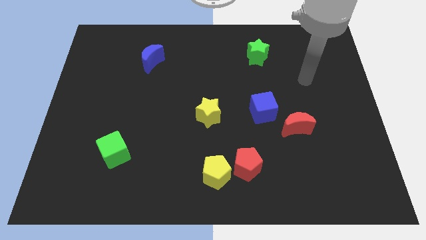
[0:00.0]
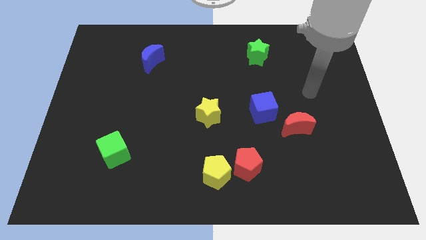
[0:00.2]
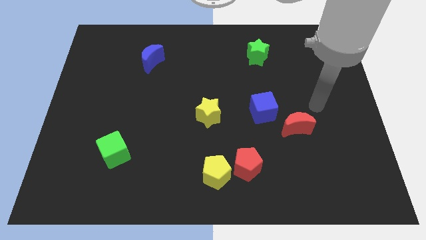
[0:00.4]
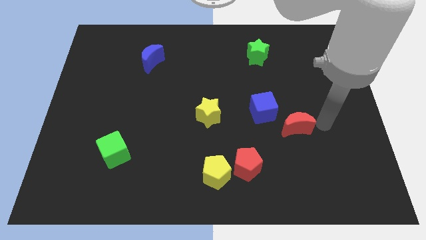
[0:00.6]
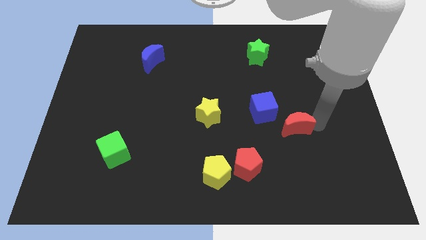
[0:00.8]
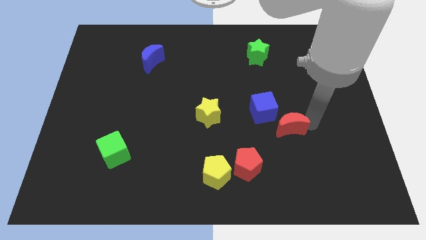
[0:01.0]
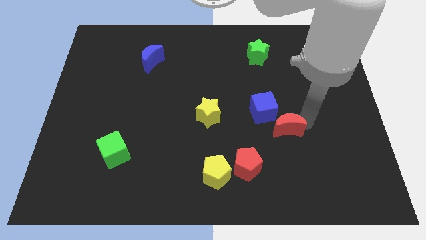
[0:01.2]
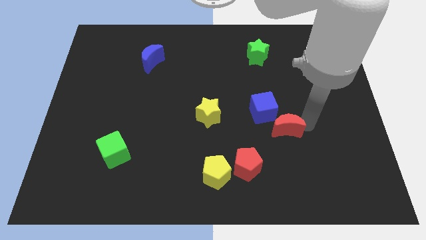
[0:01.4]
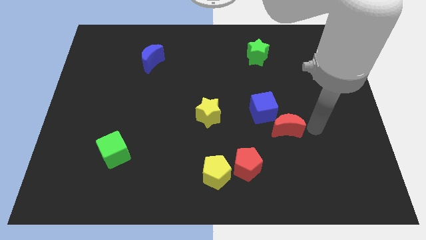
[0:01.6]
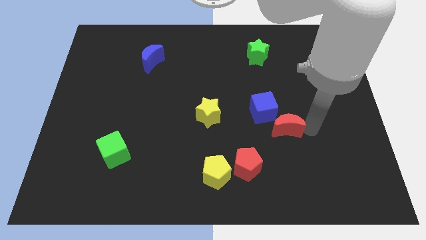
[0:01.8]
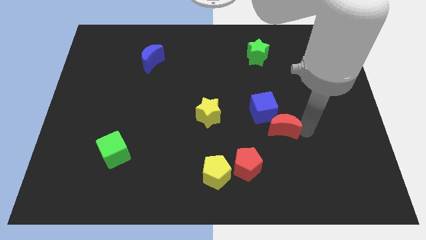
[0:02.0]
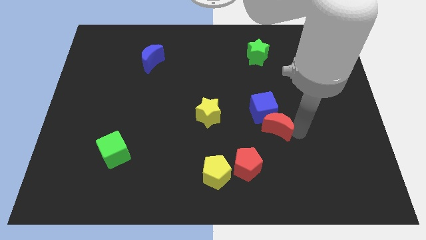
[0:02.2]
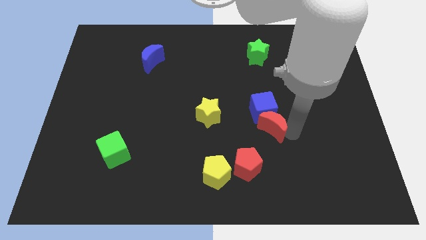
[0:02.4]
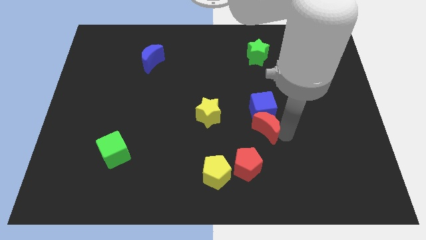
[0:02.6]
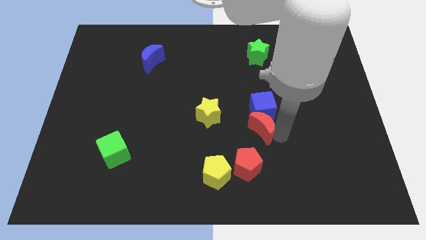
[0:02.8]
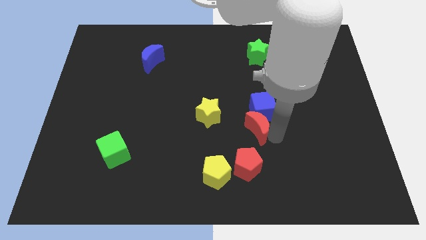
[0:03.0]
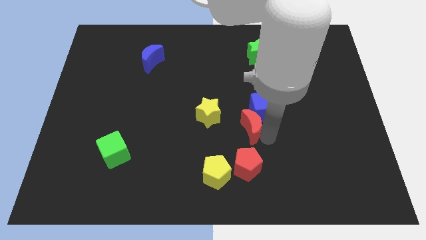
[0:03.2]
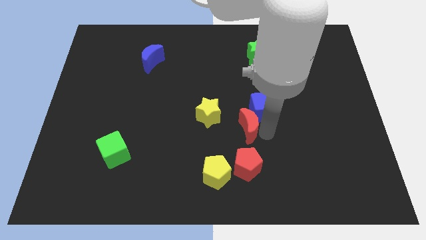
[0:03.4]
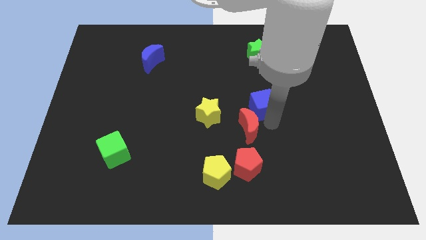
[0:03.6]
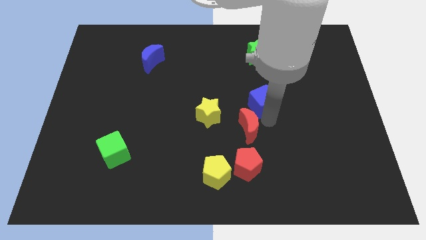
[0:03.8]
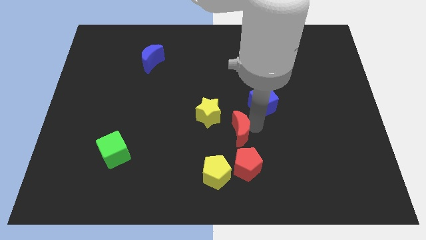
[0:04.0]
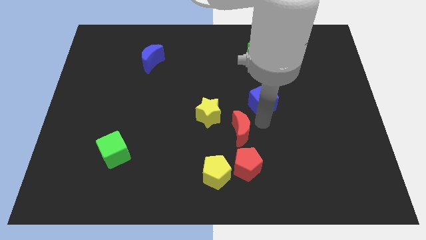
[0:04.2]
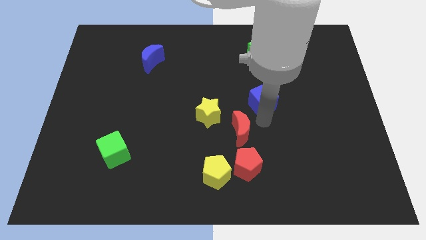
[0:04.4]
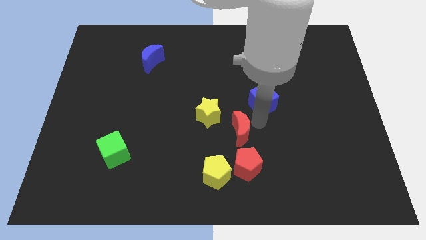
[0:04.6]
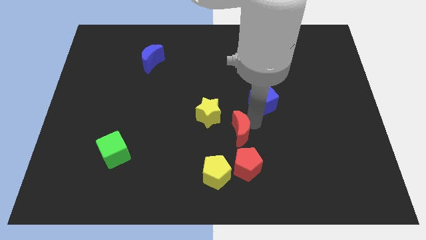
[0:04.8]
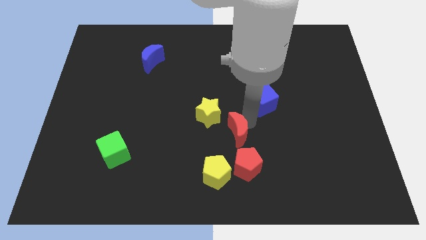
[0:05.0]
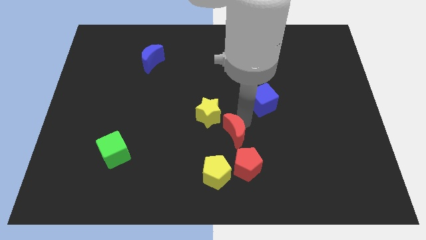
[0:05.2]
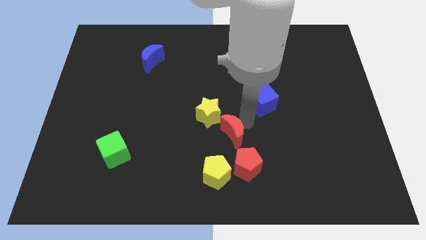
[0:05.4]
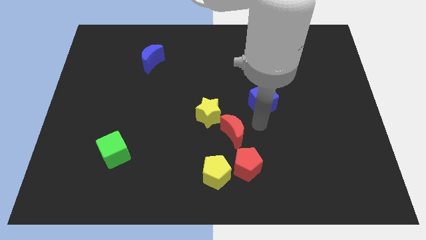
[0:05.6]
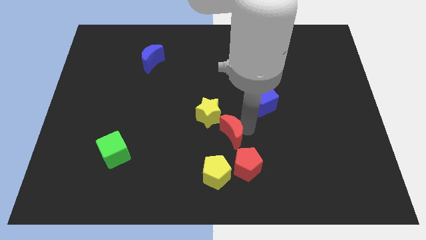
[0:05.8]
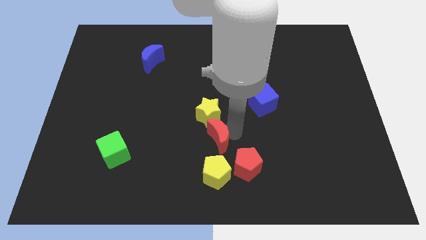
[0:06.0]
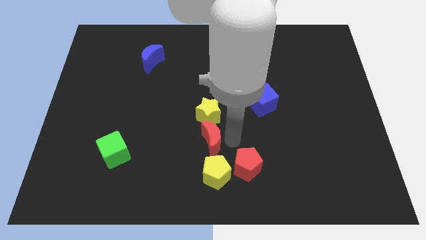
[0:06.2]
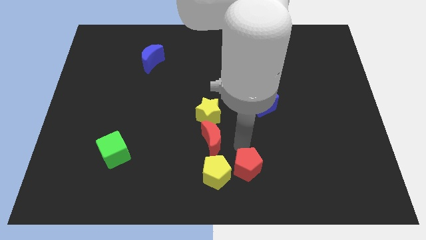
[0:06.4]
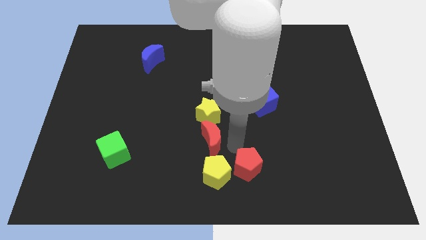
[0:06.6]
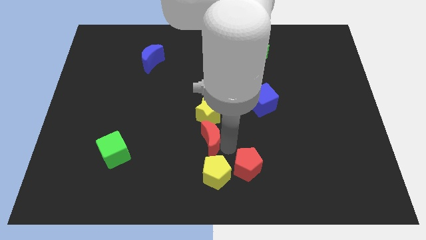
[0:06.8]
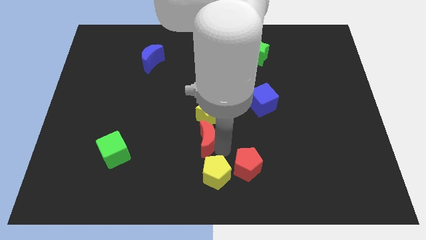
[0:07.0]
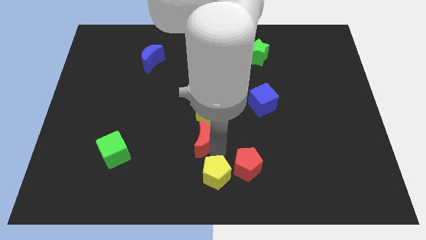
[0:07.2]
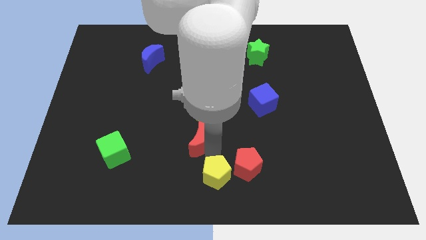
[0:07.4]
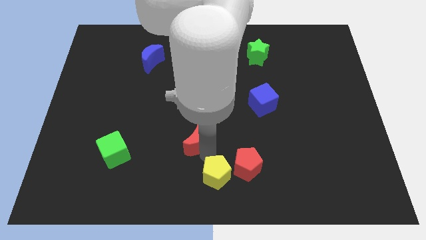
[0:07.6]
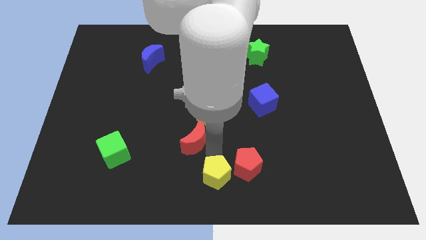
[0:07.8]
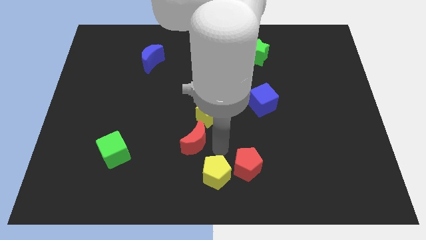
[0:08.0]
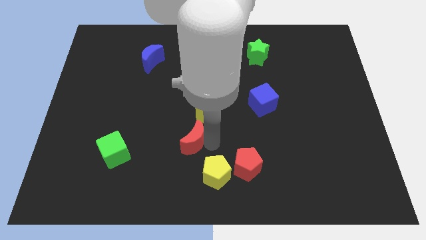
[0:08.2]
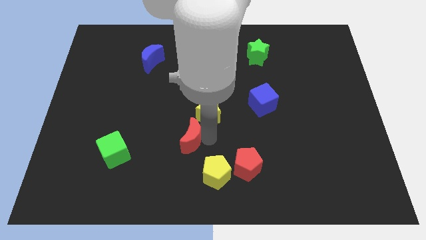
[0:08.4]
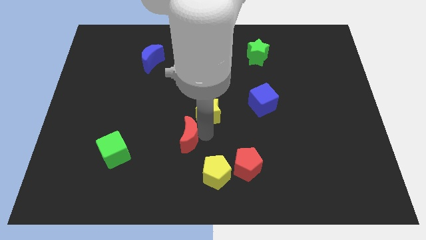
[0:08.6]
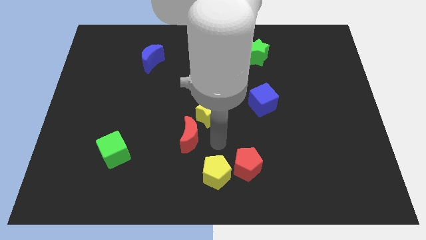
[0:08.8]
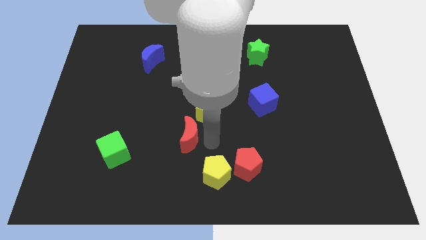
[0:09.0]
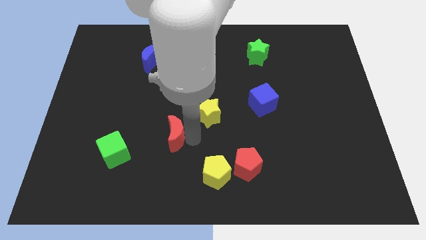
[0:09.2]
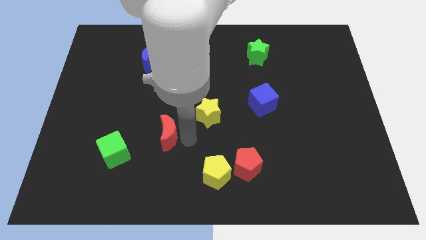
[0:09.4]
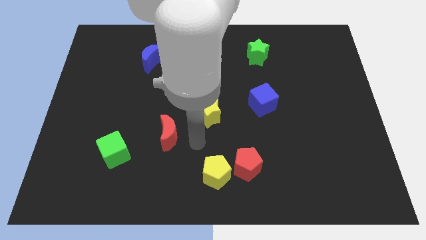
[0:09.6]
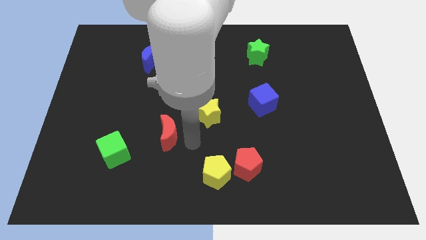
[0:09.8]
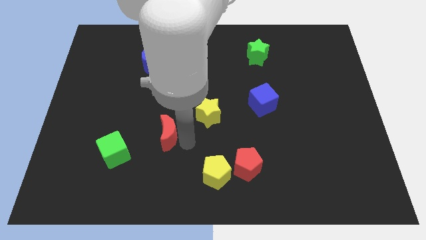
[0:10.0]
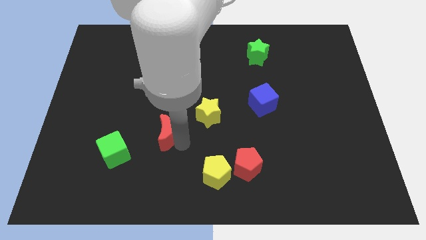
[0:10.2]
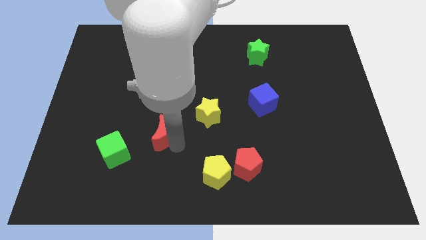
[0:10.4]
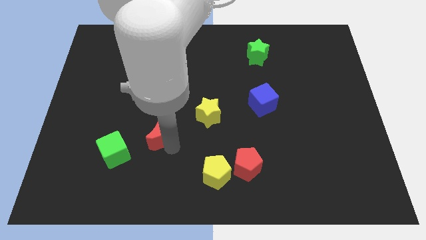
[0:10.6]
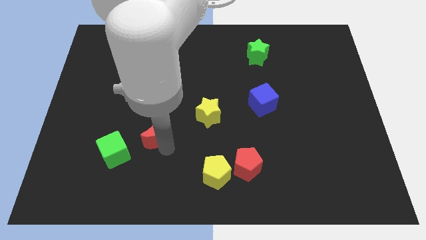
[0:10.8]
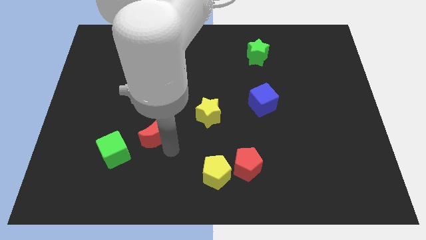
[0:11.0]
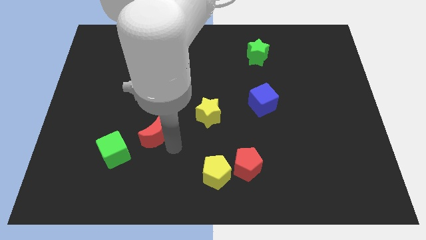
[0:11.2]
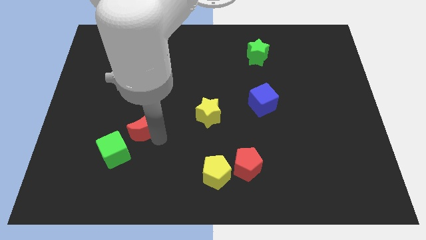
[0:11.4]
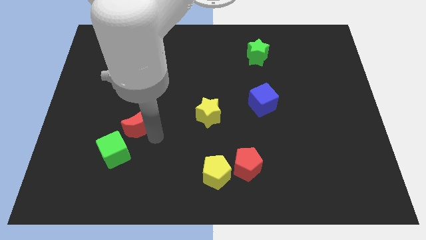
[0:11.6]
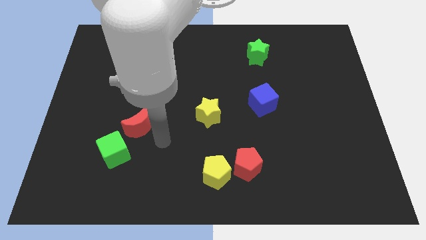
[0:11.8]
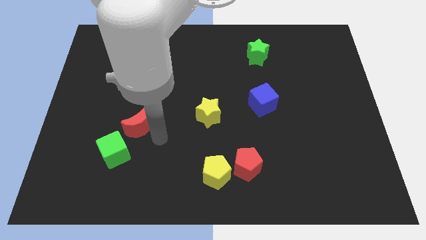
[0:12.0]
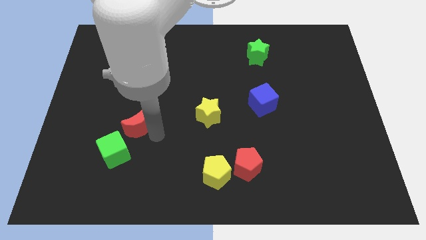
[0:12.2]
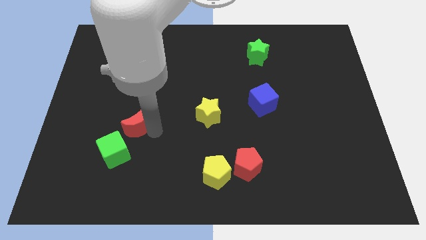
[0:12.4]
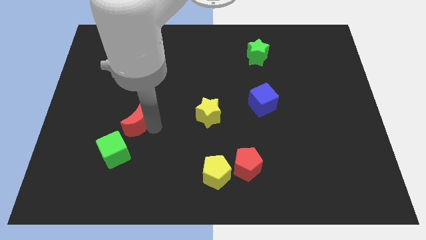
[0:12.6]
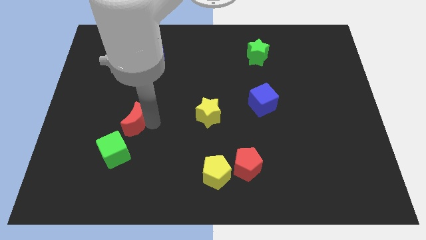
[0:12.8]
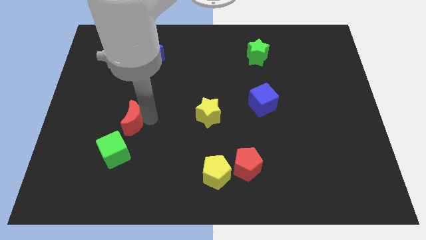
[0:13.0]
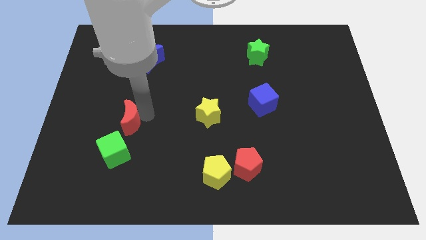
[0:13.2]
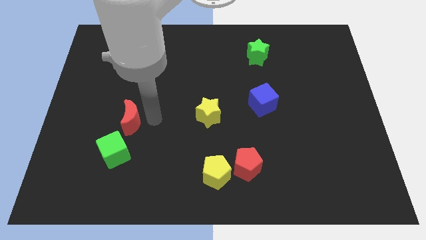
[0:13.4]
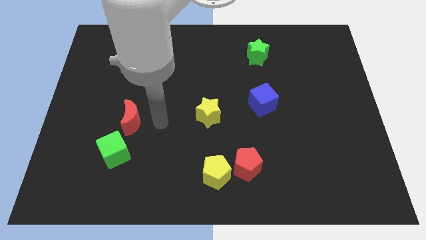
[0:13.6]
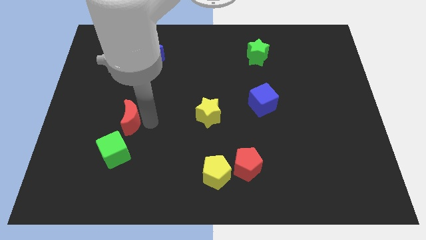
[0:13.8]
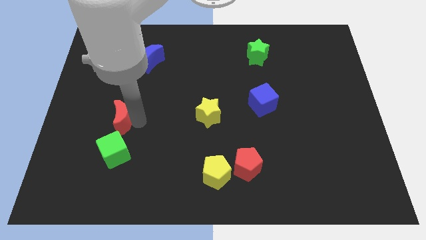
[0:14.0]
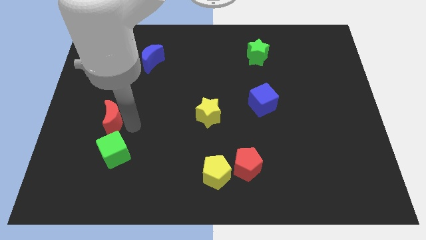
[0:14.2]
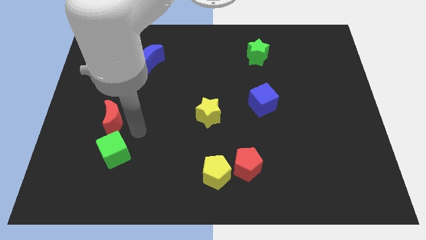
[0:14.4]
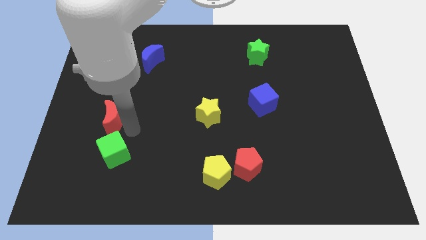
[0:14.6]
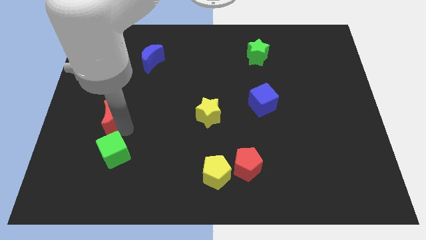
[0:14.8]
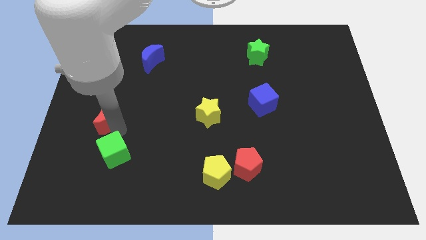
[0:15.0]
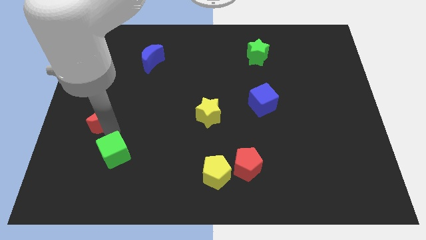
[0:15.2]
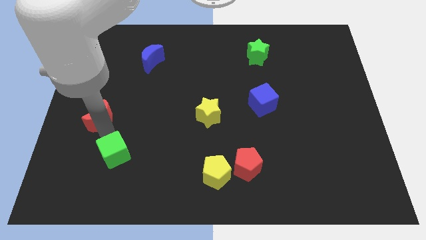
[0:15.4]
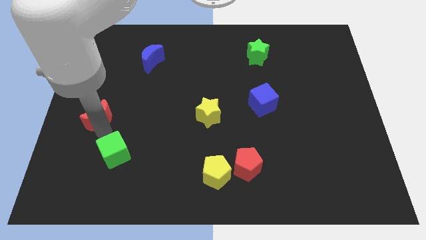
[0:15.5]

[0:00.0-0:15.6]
move the red moon to the left side
